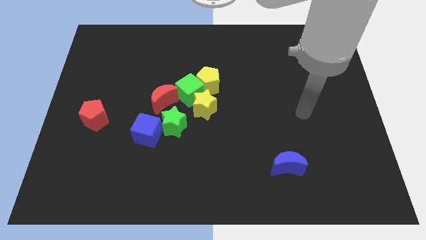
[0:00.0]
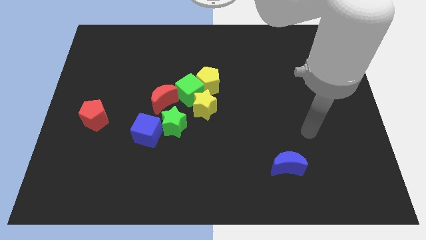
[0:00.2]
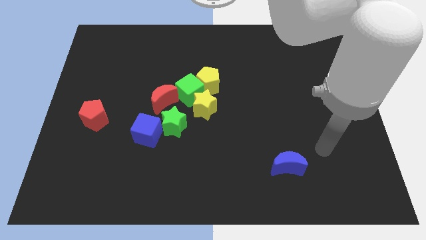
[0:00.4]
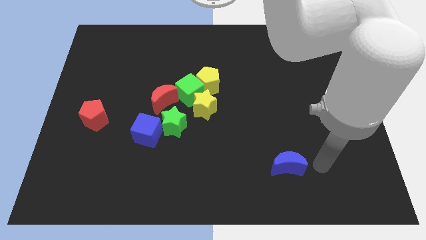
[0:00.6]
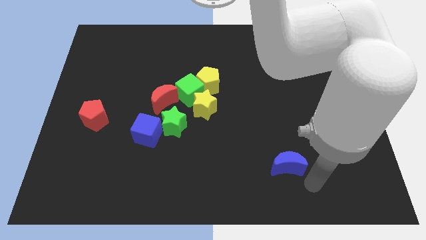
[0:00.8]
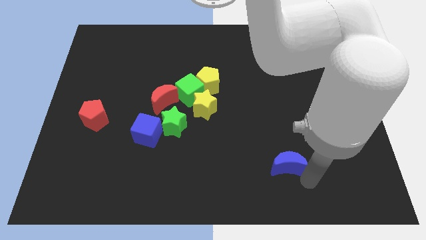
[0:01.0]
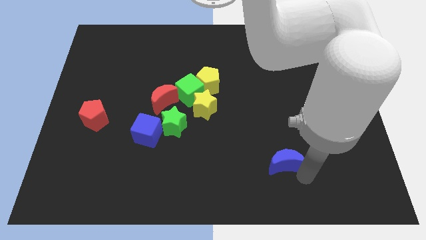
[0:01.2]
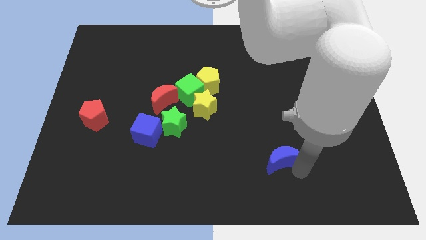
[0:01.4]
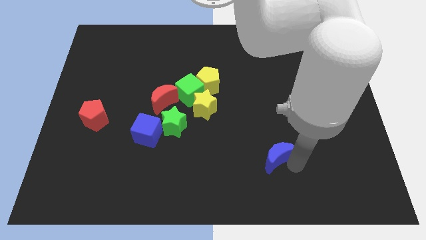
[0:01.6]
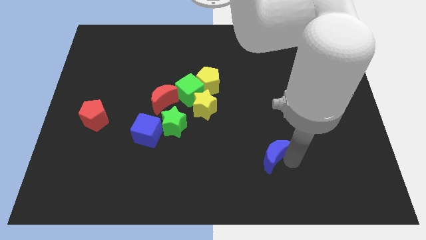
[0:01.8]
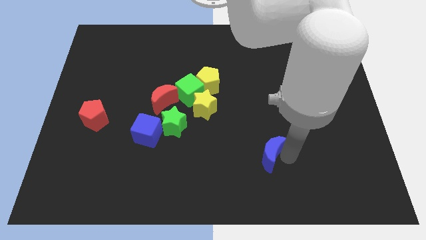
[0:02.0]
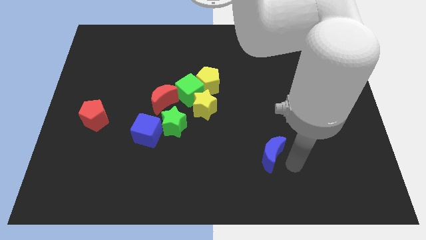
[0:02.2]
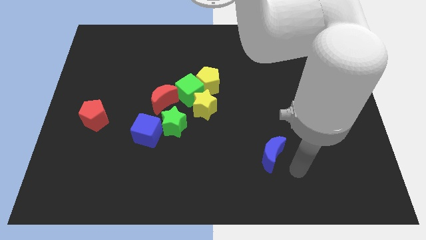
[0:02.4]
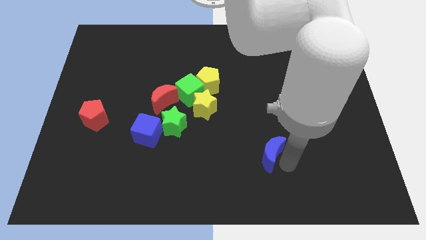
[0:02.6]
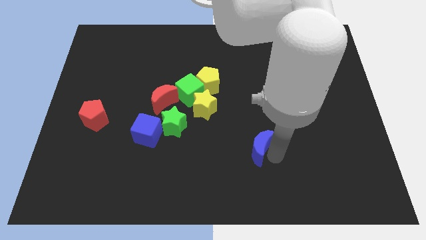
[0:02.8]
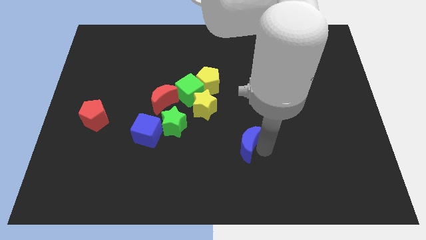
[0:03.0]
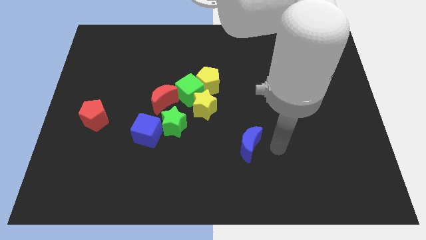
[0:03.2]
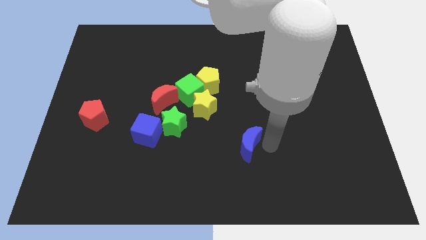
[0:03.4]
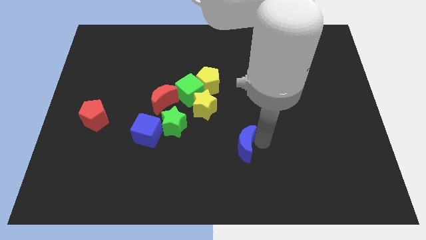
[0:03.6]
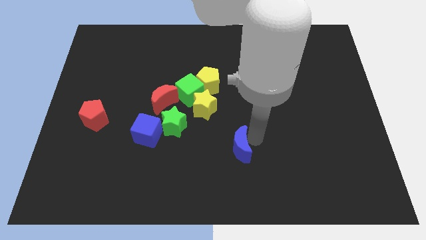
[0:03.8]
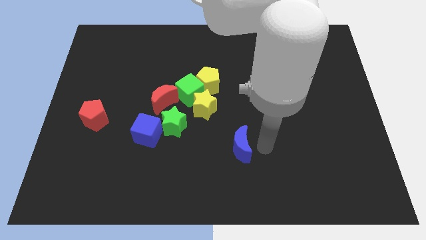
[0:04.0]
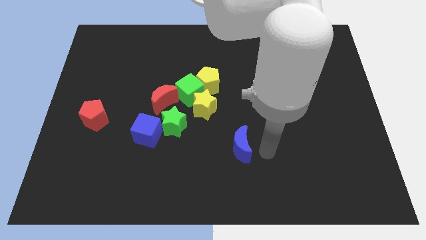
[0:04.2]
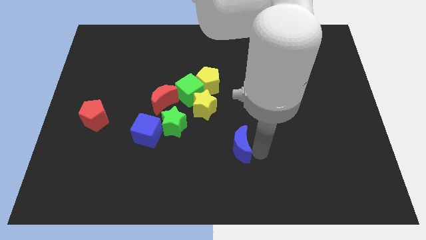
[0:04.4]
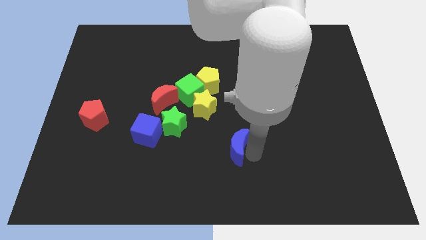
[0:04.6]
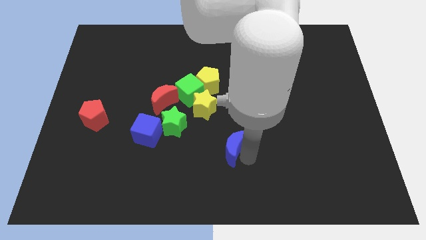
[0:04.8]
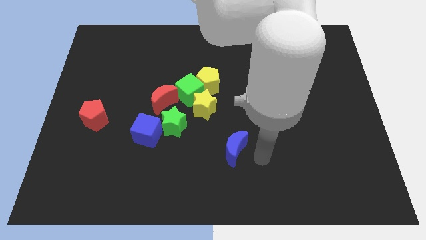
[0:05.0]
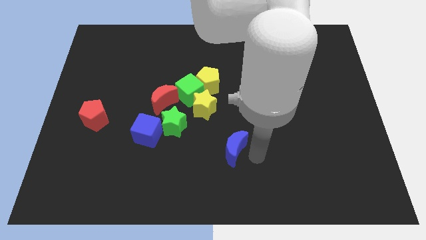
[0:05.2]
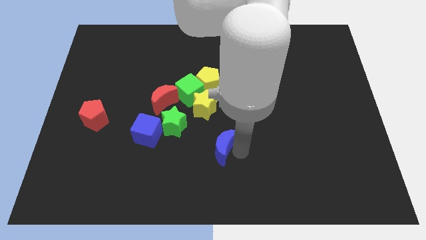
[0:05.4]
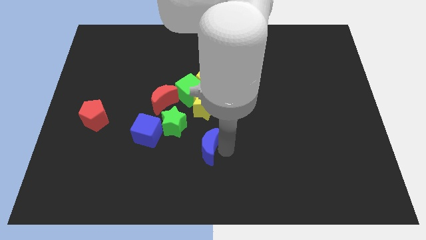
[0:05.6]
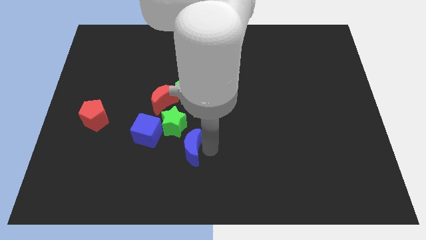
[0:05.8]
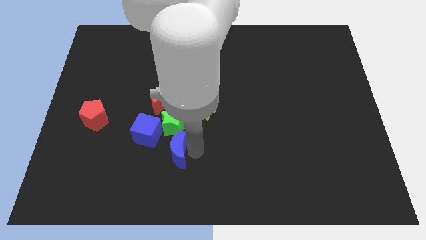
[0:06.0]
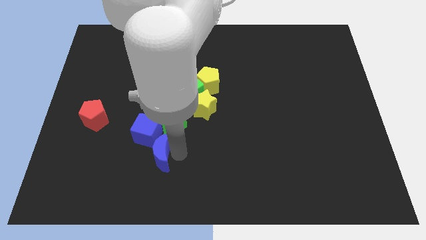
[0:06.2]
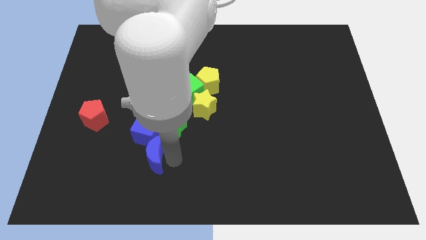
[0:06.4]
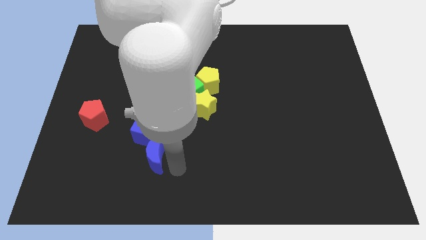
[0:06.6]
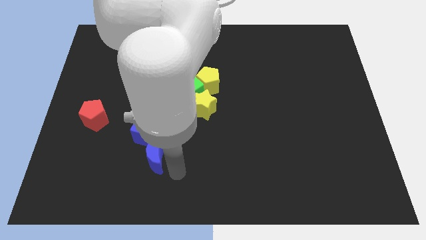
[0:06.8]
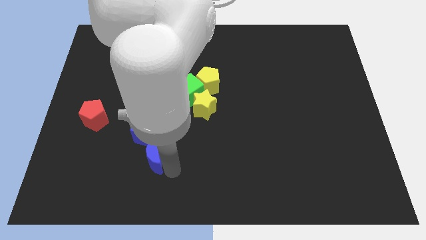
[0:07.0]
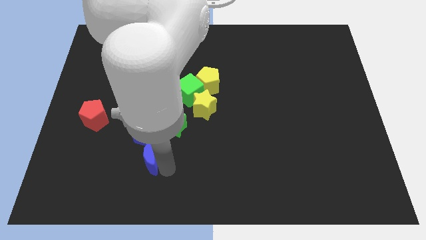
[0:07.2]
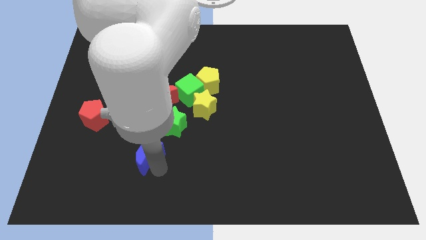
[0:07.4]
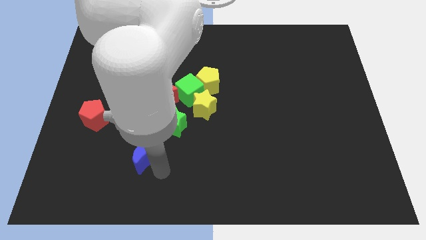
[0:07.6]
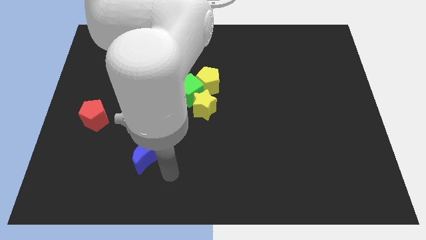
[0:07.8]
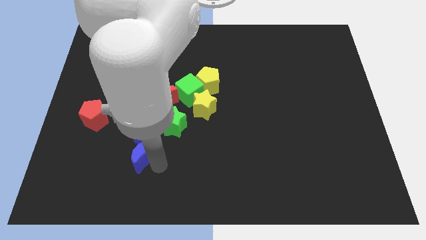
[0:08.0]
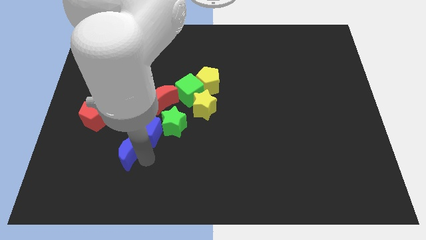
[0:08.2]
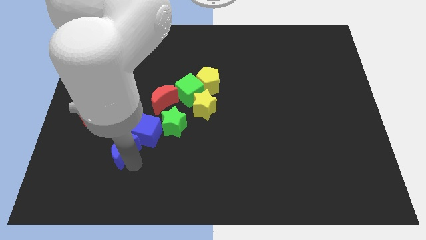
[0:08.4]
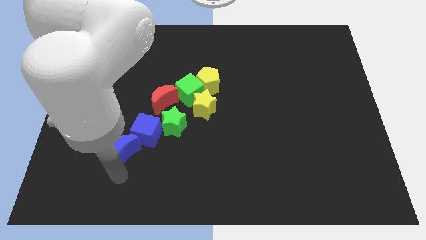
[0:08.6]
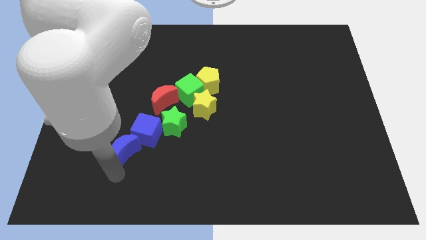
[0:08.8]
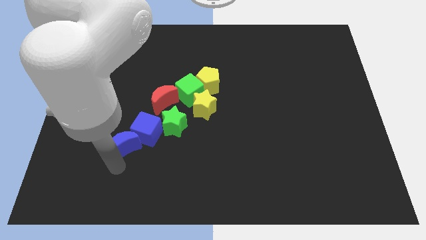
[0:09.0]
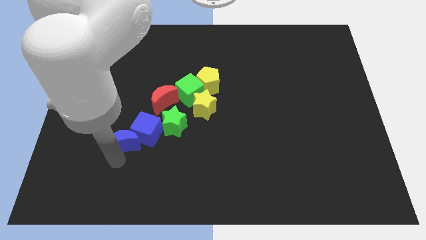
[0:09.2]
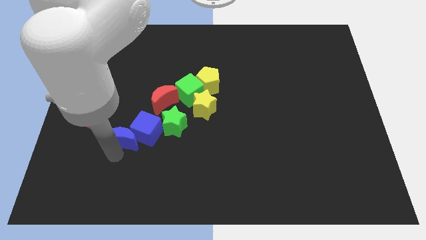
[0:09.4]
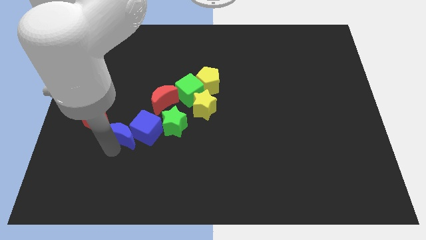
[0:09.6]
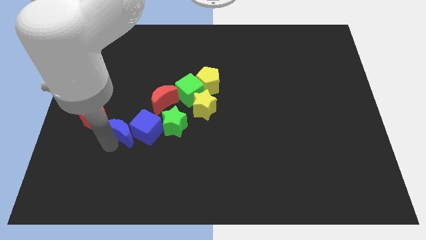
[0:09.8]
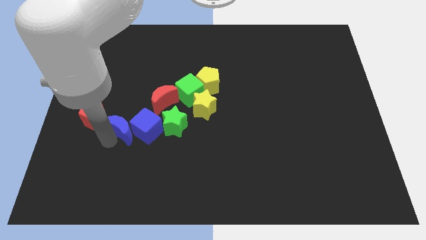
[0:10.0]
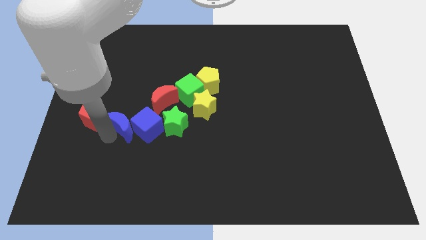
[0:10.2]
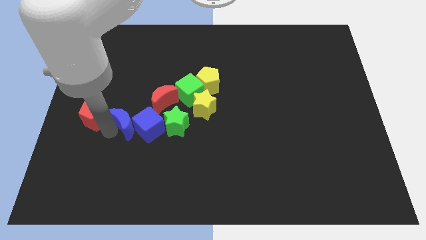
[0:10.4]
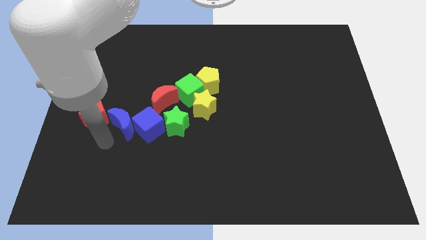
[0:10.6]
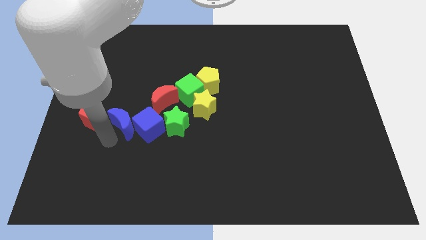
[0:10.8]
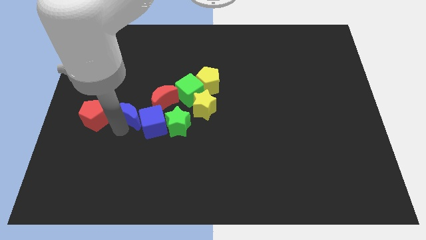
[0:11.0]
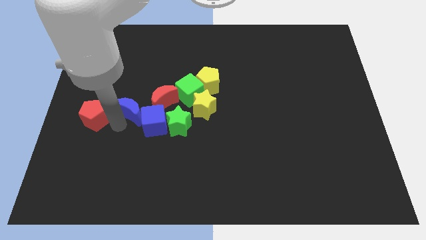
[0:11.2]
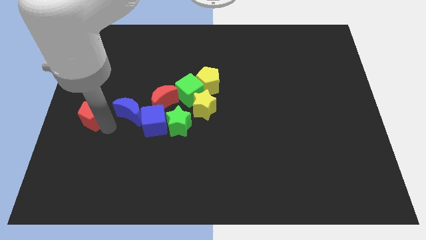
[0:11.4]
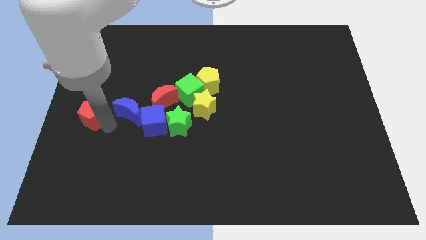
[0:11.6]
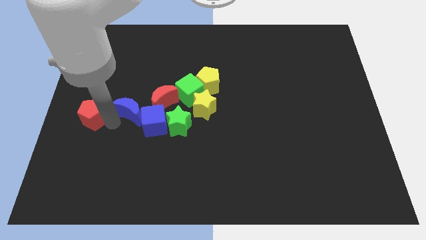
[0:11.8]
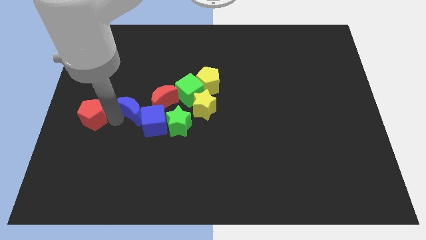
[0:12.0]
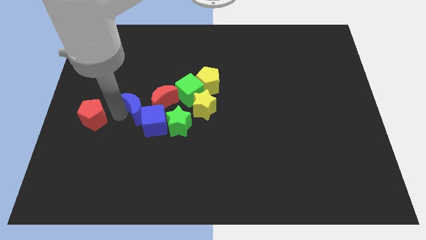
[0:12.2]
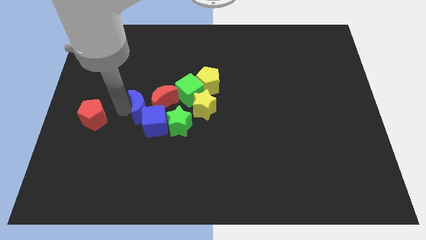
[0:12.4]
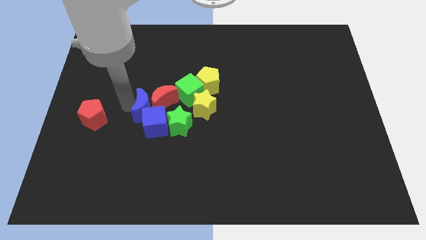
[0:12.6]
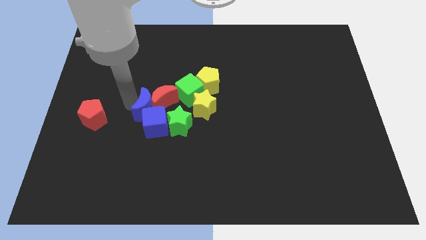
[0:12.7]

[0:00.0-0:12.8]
push the blue moon to the bottom left of the green cube

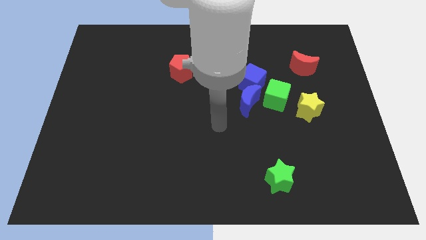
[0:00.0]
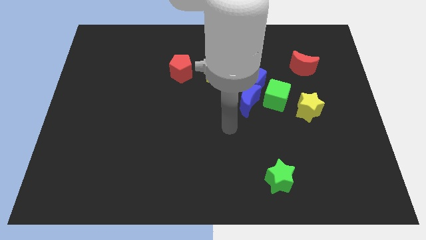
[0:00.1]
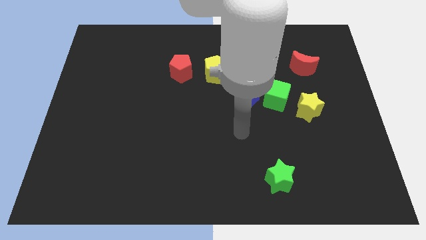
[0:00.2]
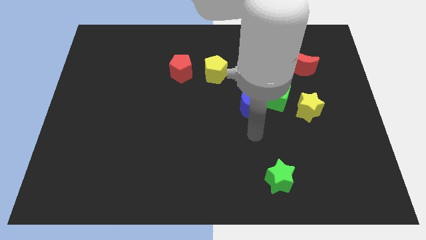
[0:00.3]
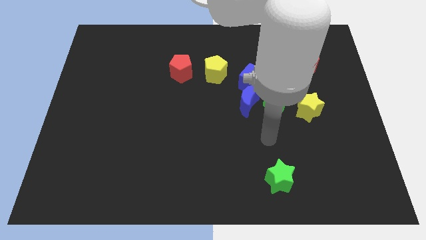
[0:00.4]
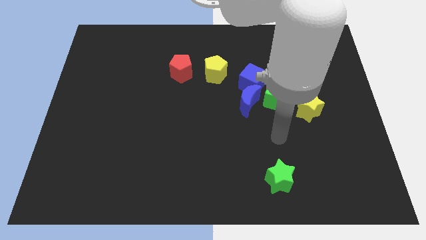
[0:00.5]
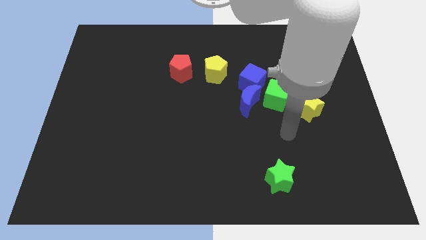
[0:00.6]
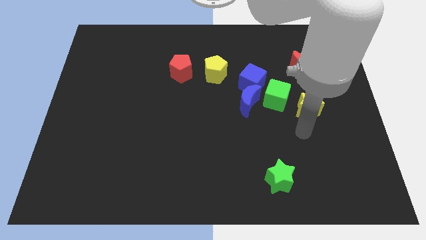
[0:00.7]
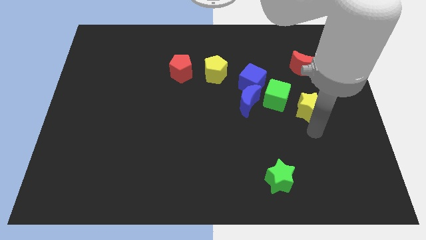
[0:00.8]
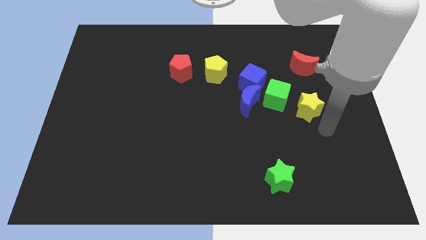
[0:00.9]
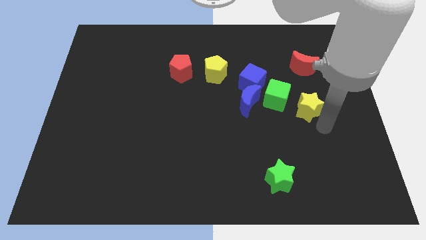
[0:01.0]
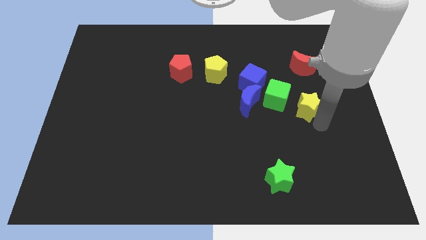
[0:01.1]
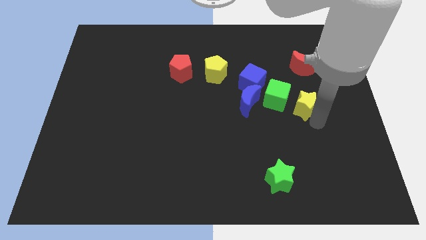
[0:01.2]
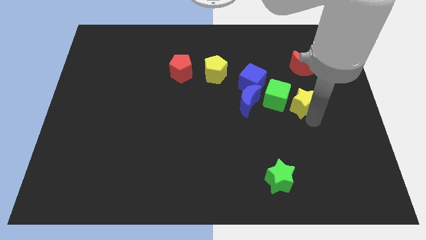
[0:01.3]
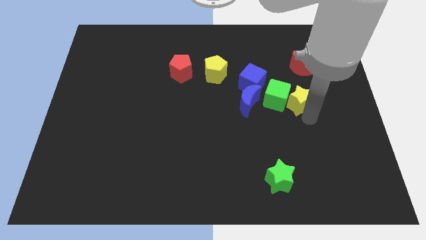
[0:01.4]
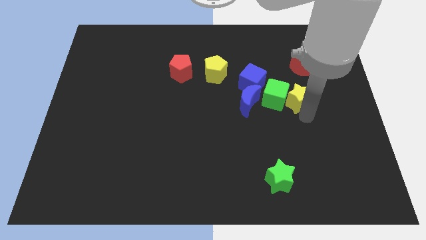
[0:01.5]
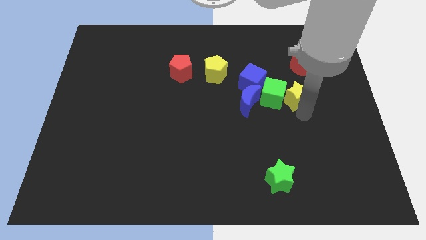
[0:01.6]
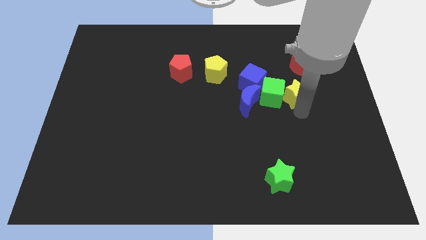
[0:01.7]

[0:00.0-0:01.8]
move the yellow star to the bottom left of the red moon
